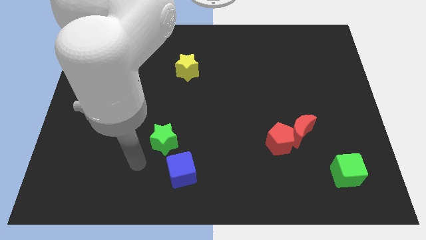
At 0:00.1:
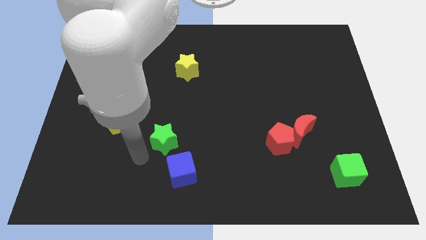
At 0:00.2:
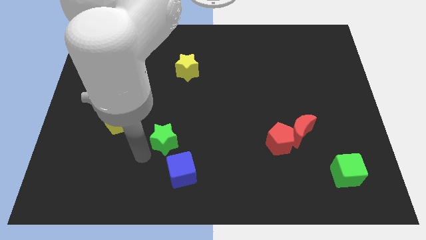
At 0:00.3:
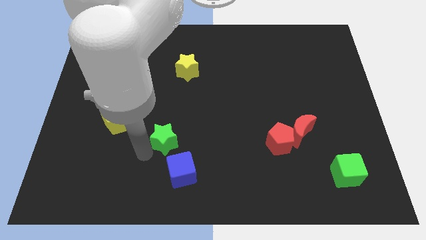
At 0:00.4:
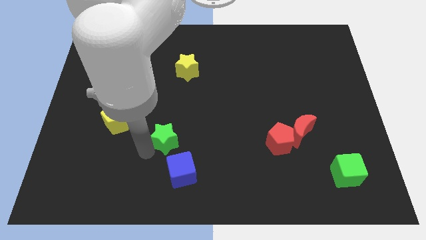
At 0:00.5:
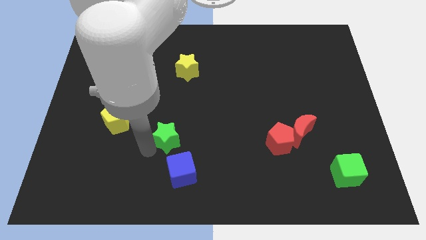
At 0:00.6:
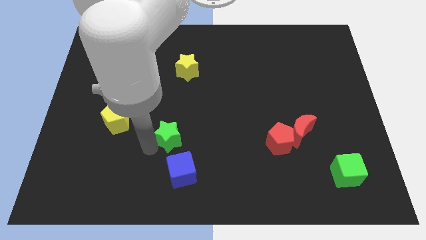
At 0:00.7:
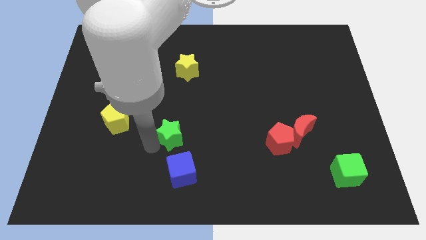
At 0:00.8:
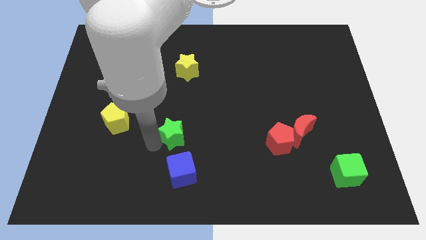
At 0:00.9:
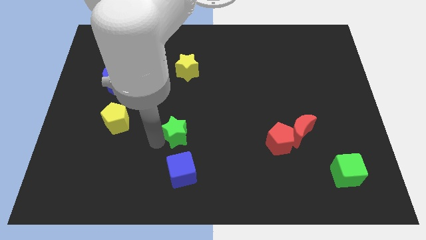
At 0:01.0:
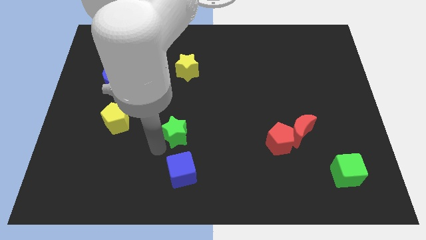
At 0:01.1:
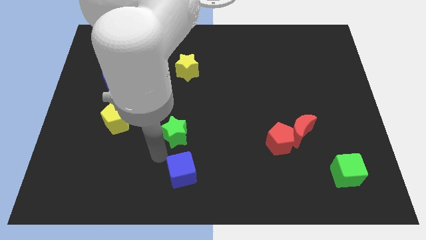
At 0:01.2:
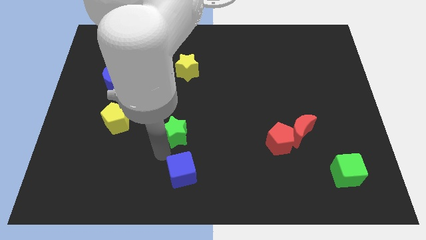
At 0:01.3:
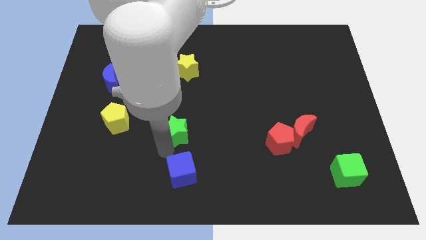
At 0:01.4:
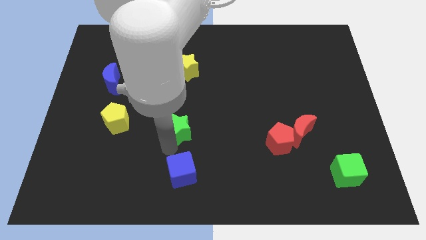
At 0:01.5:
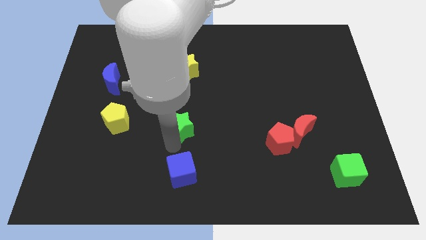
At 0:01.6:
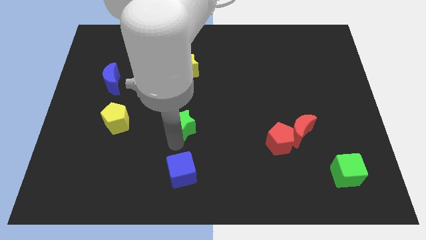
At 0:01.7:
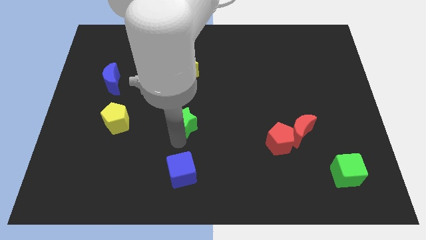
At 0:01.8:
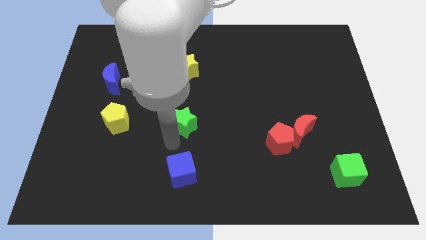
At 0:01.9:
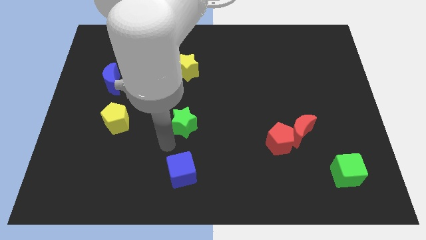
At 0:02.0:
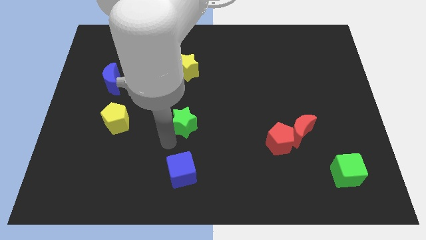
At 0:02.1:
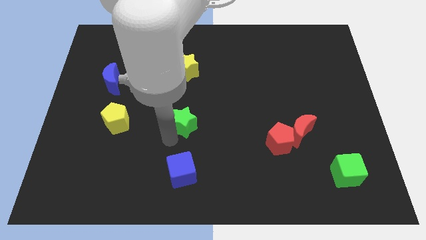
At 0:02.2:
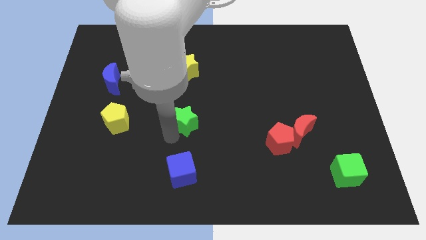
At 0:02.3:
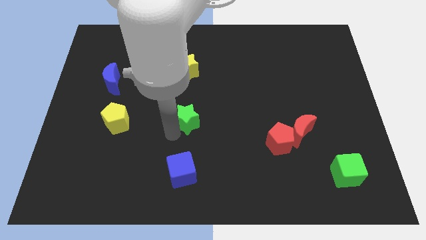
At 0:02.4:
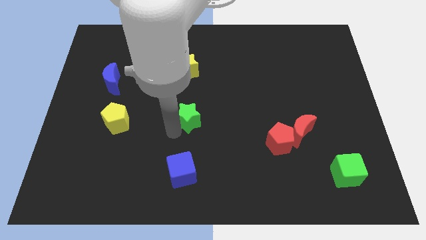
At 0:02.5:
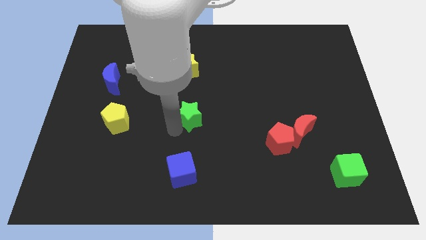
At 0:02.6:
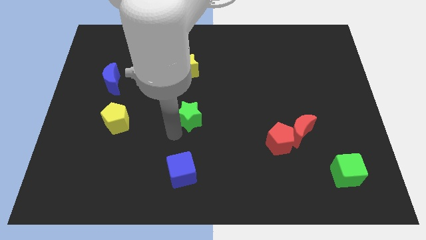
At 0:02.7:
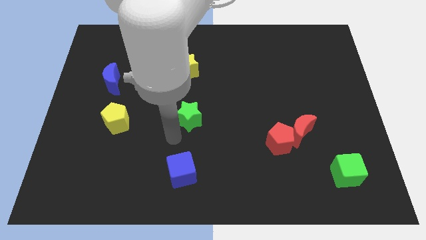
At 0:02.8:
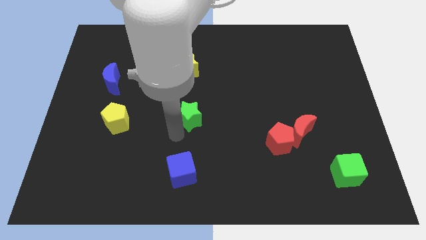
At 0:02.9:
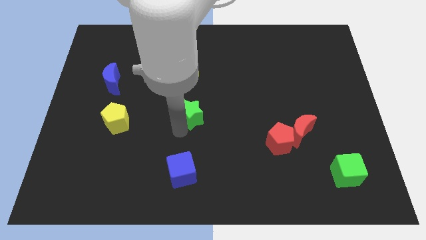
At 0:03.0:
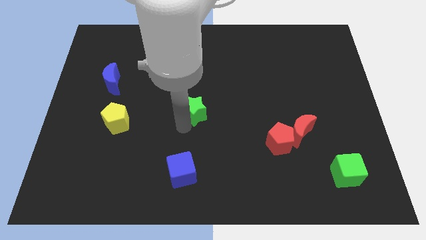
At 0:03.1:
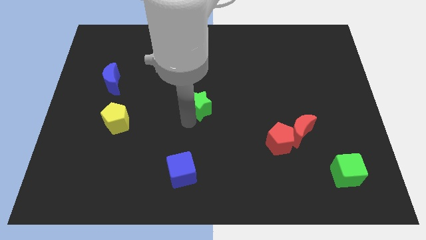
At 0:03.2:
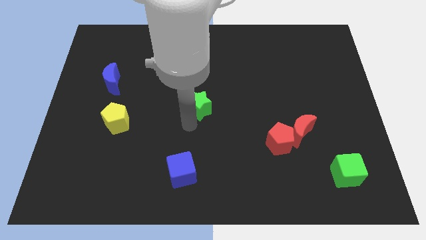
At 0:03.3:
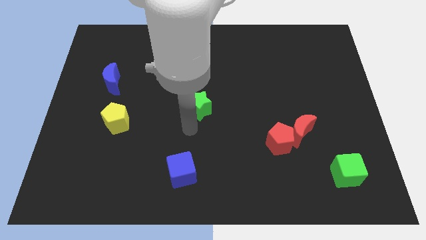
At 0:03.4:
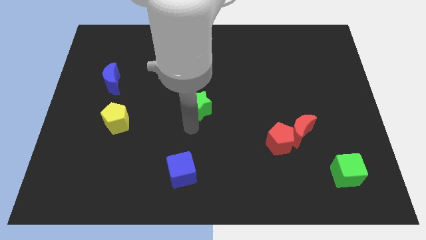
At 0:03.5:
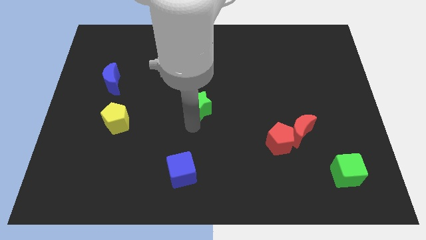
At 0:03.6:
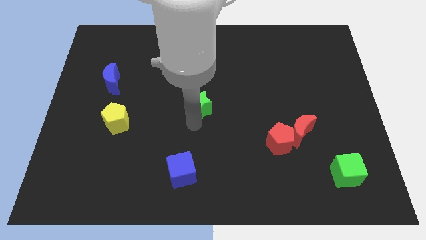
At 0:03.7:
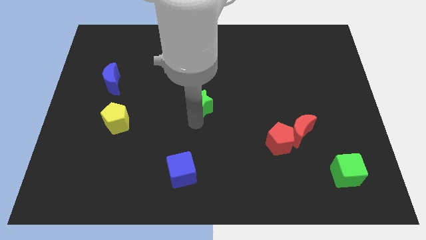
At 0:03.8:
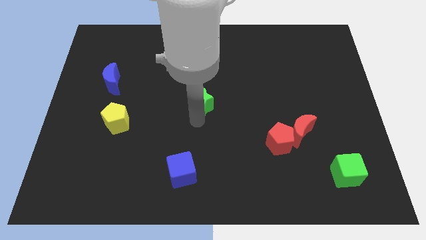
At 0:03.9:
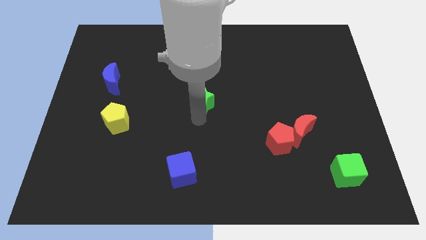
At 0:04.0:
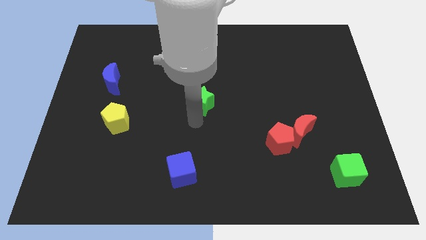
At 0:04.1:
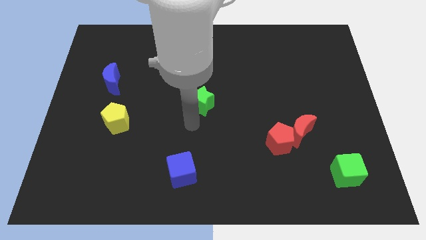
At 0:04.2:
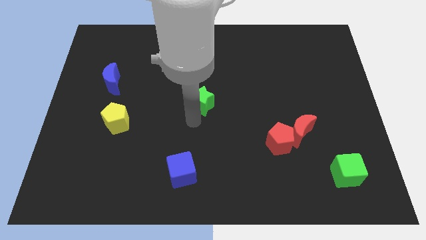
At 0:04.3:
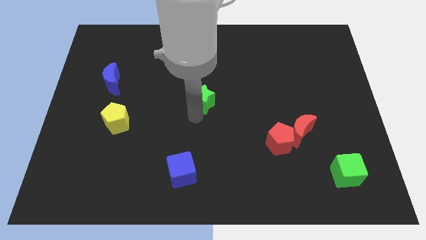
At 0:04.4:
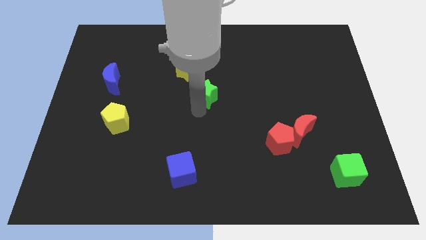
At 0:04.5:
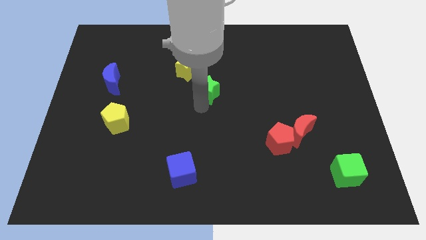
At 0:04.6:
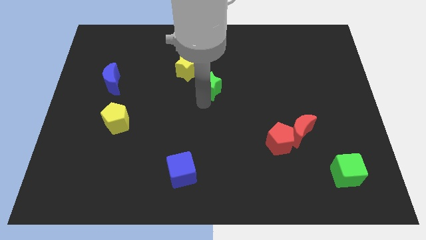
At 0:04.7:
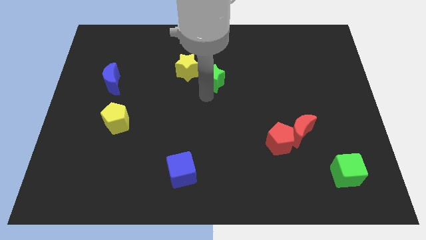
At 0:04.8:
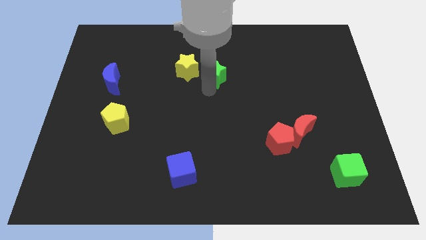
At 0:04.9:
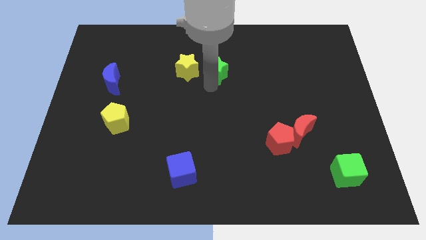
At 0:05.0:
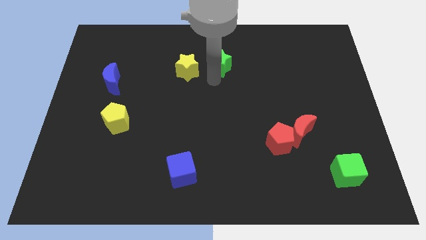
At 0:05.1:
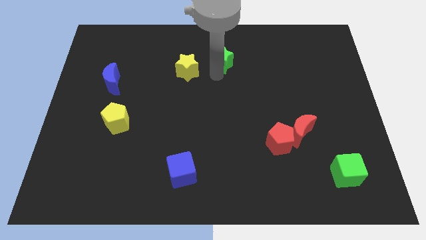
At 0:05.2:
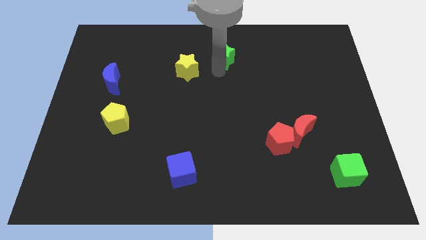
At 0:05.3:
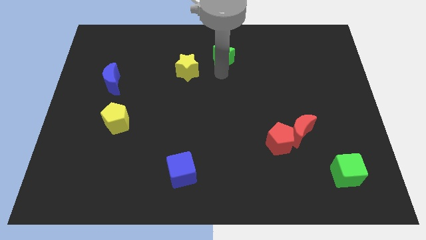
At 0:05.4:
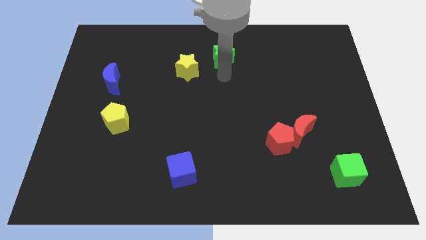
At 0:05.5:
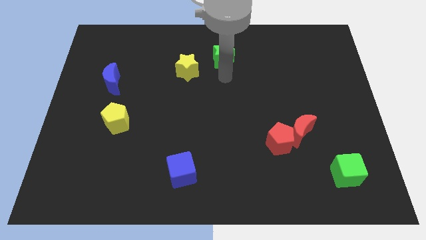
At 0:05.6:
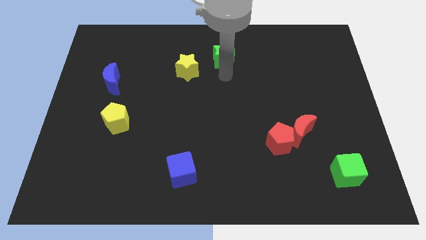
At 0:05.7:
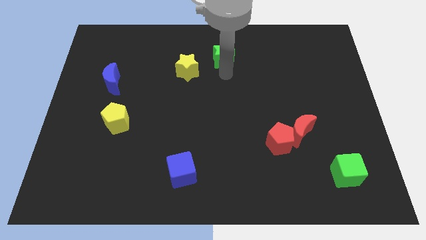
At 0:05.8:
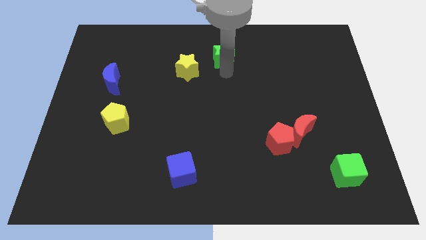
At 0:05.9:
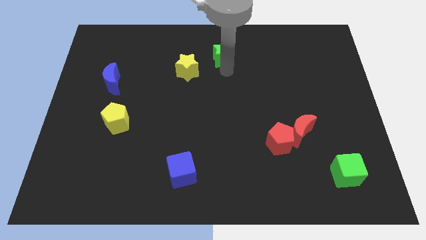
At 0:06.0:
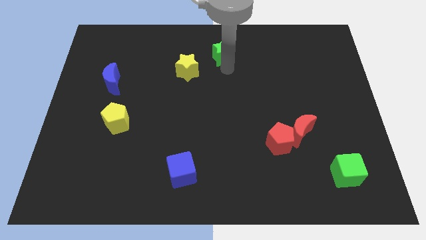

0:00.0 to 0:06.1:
move the green star to the towards your base
